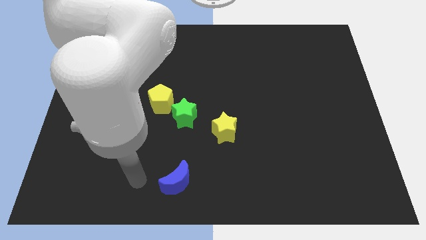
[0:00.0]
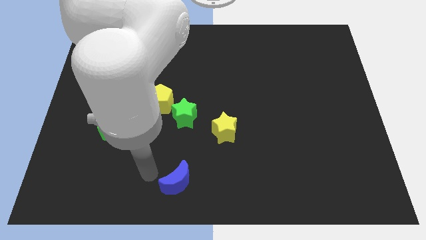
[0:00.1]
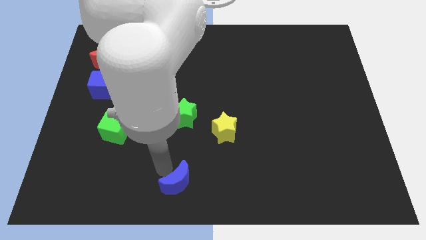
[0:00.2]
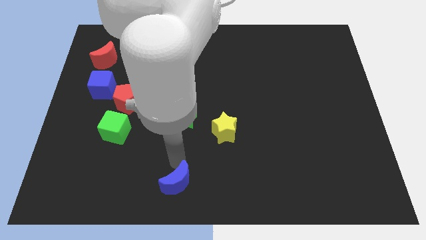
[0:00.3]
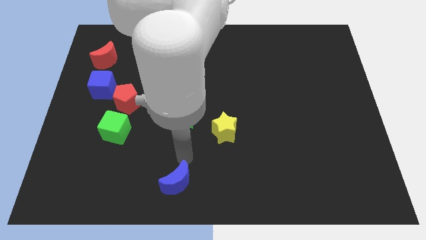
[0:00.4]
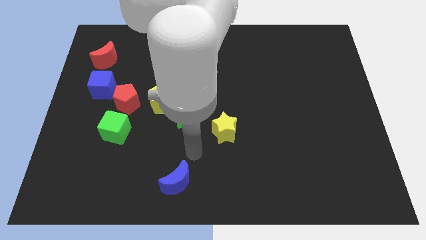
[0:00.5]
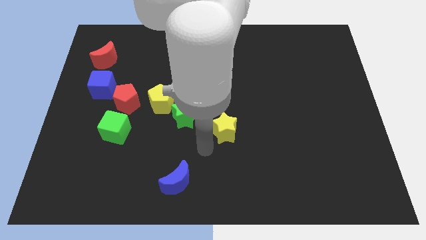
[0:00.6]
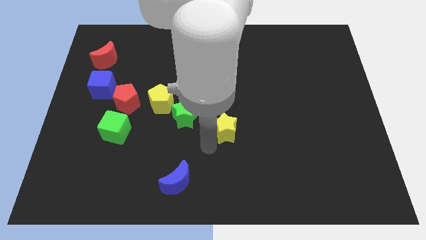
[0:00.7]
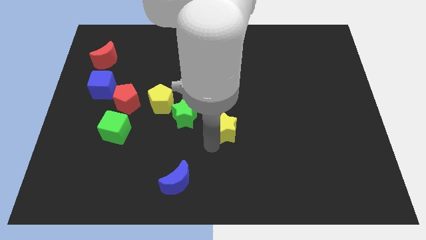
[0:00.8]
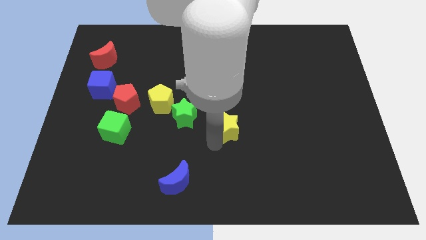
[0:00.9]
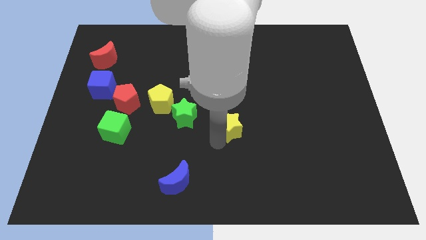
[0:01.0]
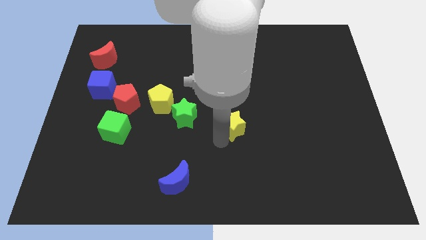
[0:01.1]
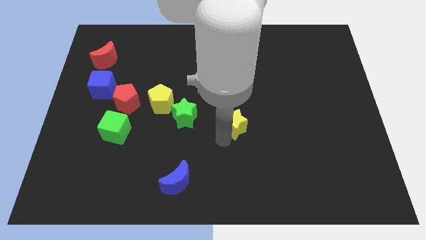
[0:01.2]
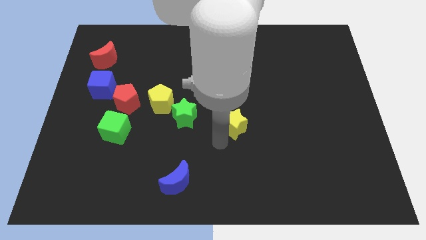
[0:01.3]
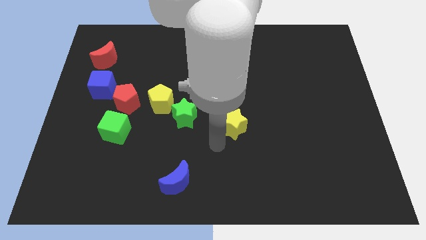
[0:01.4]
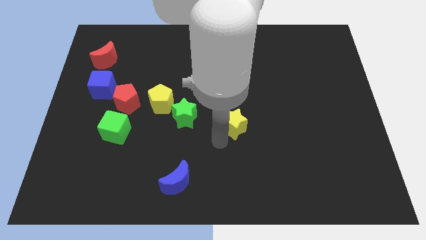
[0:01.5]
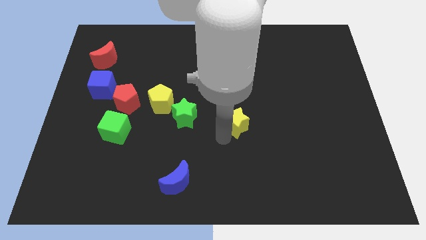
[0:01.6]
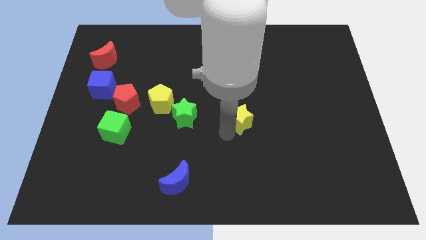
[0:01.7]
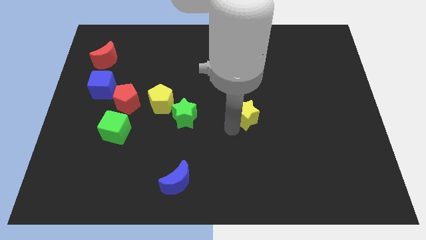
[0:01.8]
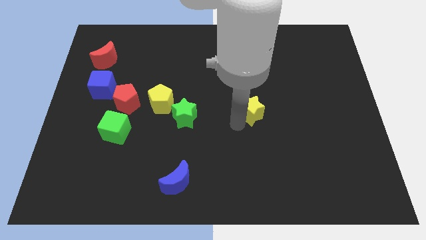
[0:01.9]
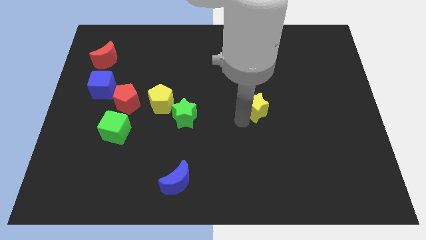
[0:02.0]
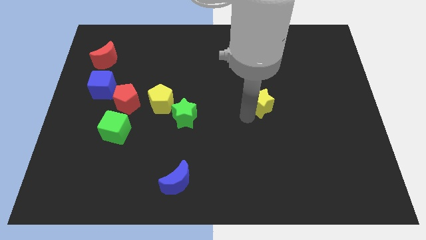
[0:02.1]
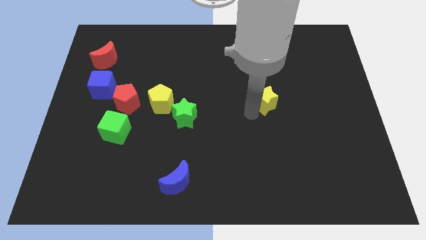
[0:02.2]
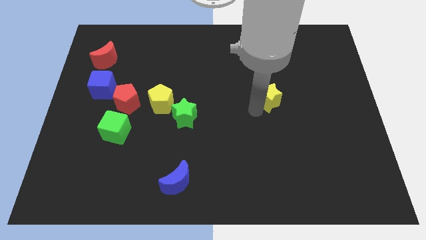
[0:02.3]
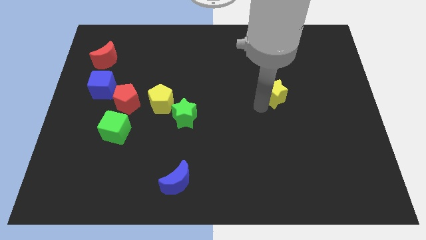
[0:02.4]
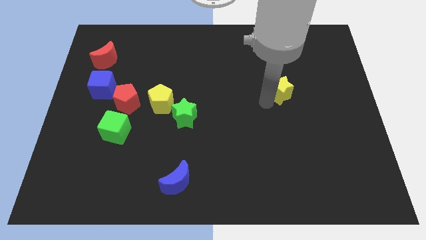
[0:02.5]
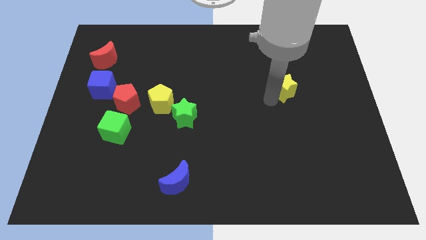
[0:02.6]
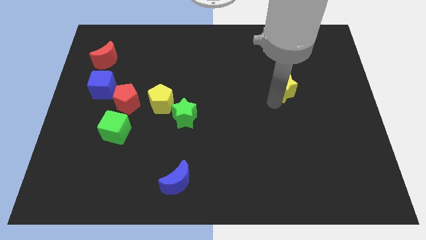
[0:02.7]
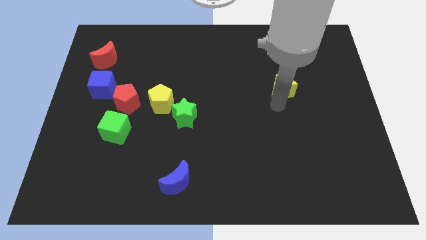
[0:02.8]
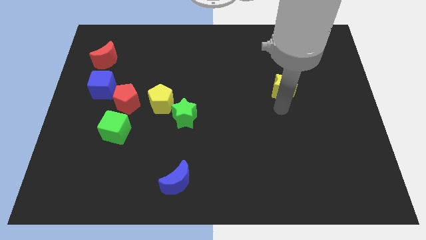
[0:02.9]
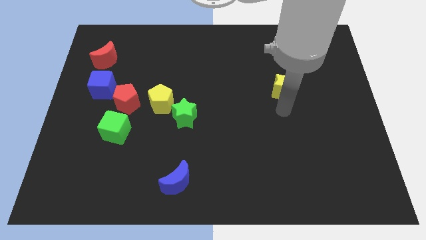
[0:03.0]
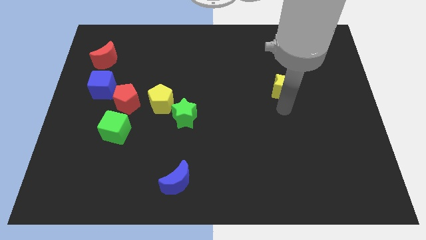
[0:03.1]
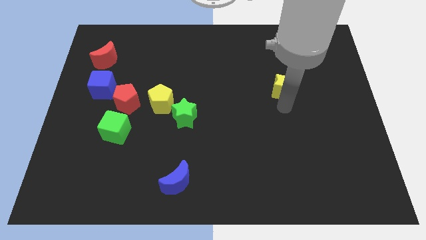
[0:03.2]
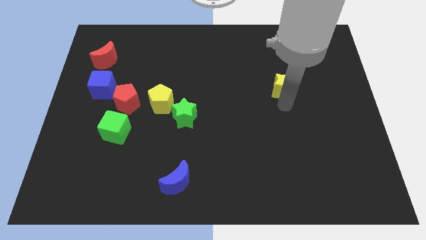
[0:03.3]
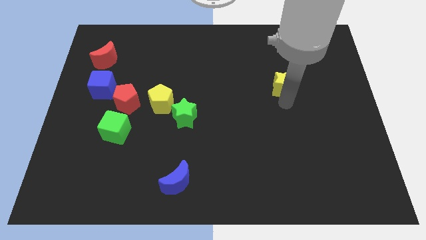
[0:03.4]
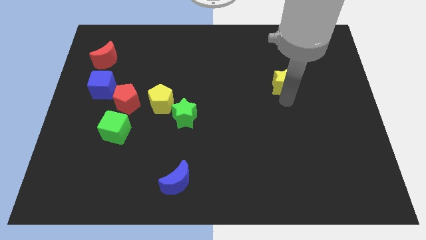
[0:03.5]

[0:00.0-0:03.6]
push the yellow star upwards and then to the right

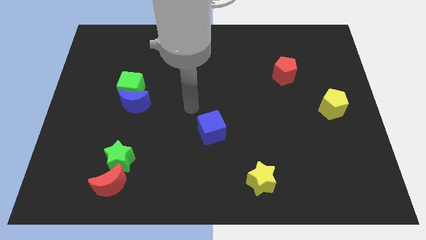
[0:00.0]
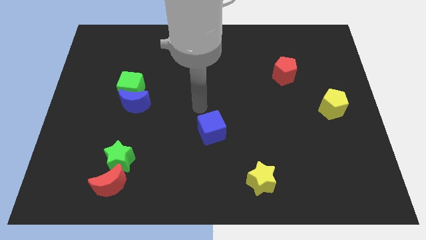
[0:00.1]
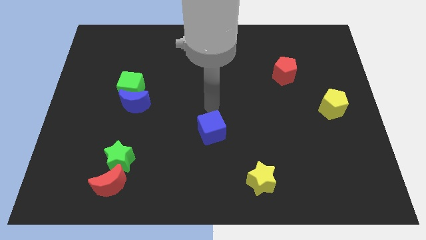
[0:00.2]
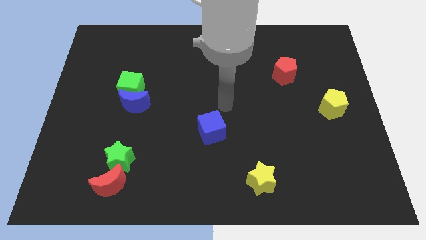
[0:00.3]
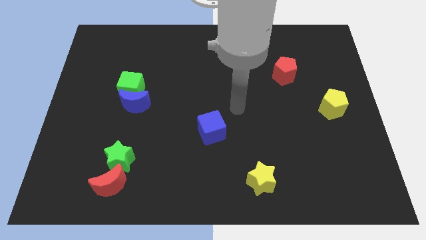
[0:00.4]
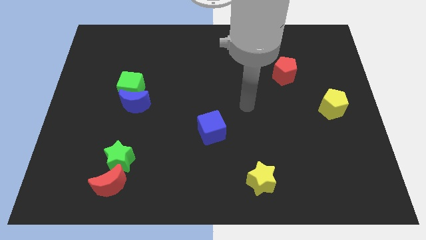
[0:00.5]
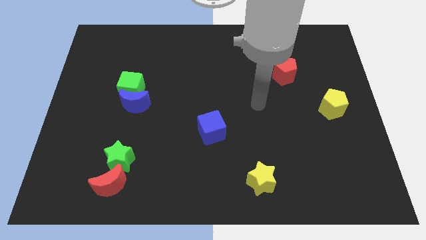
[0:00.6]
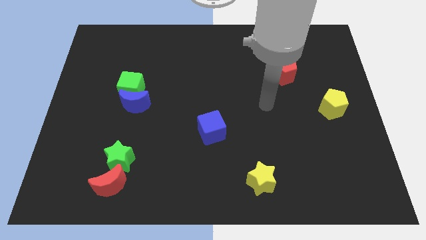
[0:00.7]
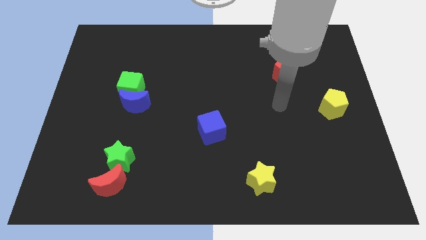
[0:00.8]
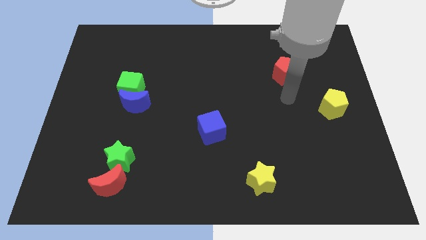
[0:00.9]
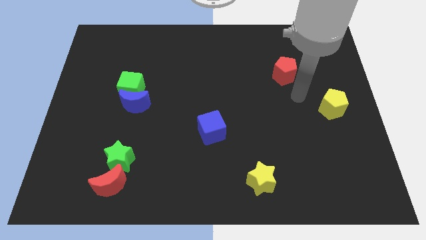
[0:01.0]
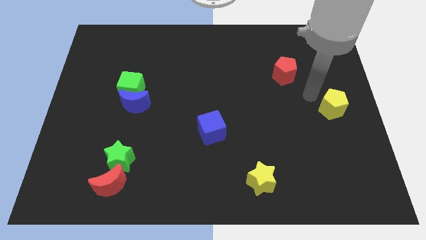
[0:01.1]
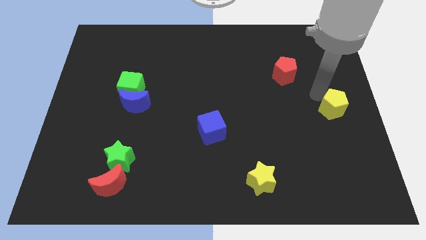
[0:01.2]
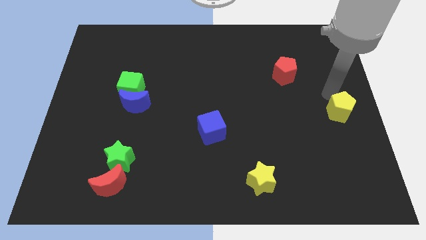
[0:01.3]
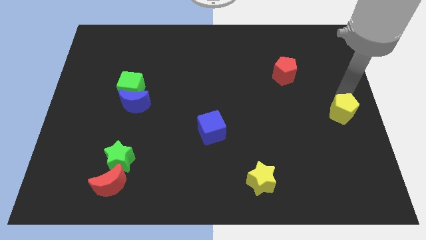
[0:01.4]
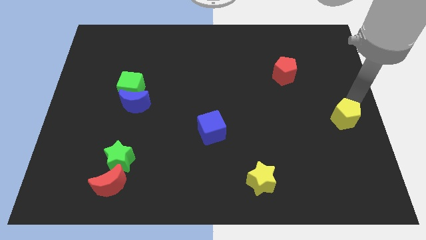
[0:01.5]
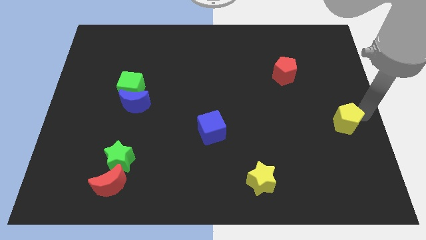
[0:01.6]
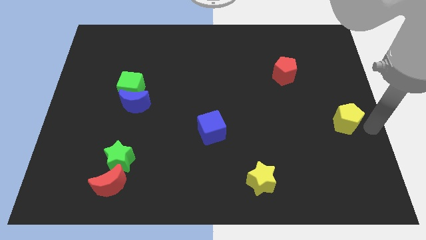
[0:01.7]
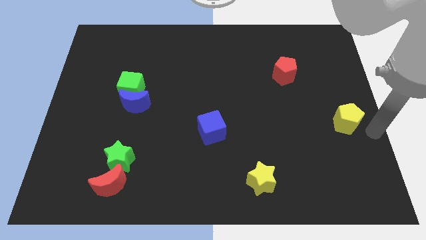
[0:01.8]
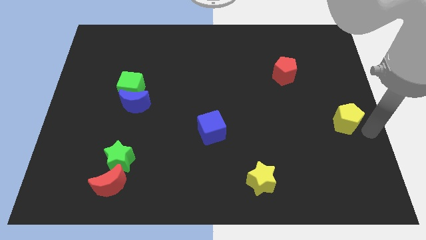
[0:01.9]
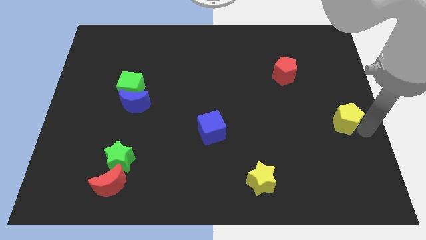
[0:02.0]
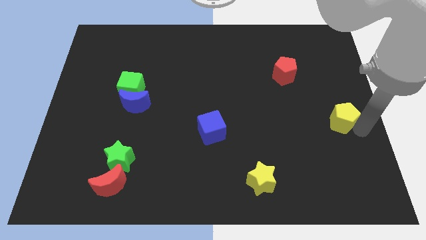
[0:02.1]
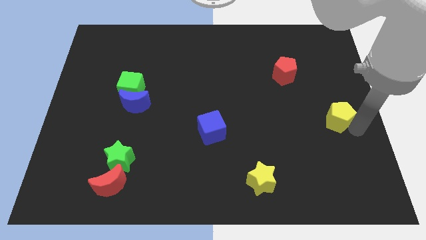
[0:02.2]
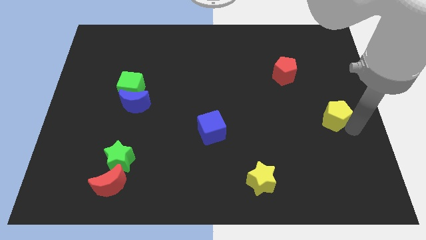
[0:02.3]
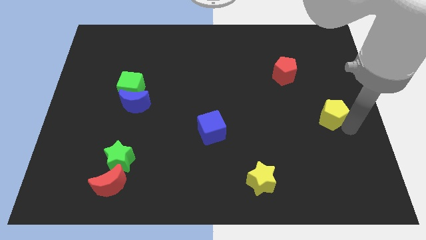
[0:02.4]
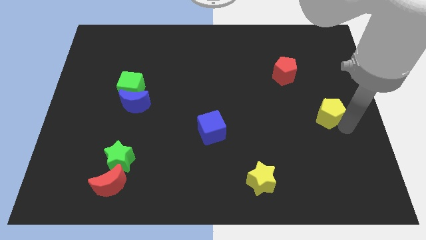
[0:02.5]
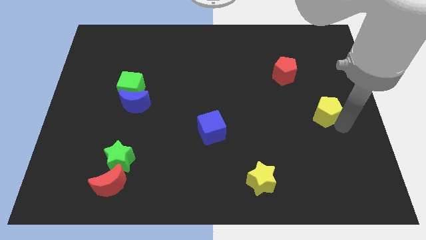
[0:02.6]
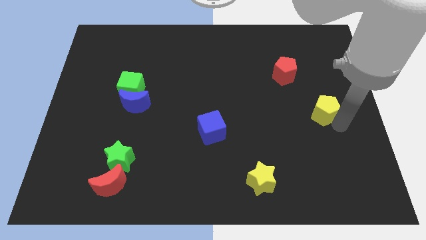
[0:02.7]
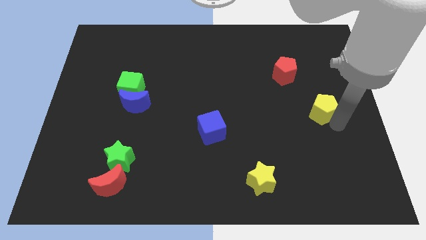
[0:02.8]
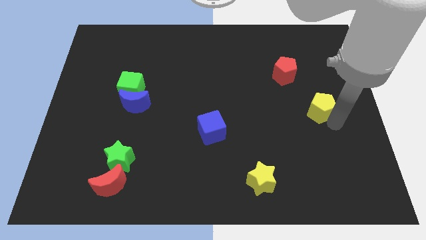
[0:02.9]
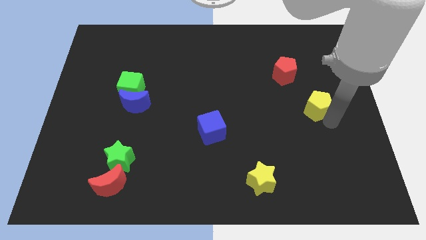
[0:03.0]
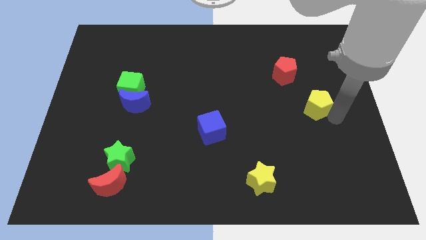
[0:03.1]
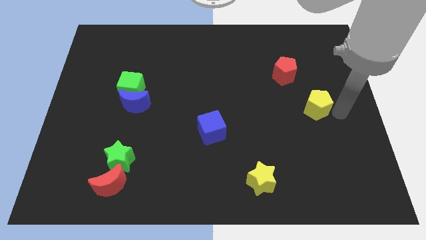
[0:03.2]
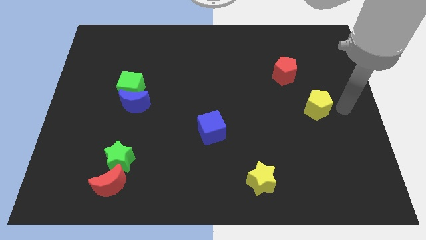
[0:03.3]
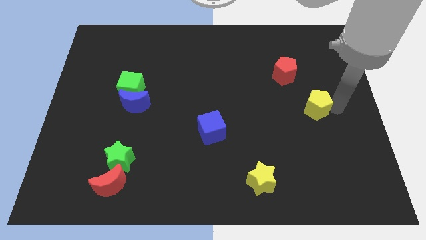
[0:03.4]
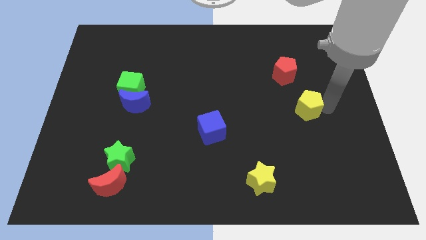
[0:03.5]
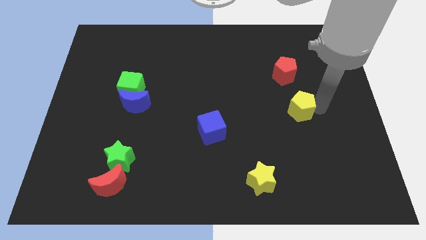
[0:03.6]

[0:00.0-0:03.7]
slide the yellow pentagon left slightly

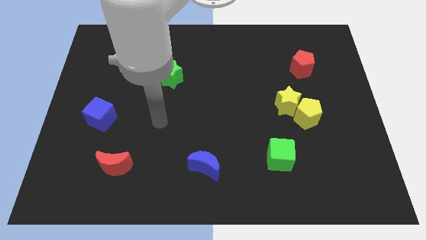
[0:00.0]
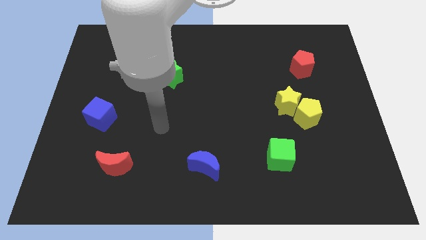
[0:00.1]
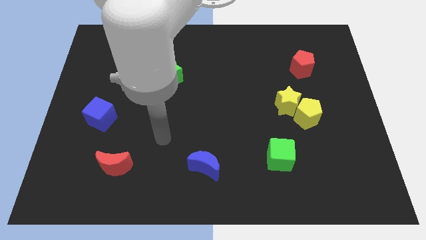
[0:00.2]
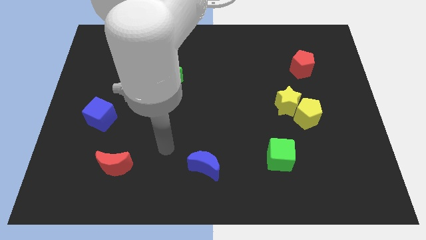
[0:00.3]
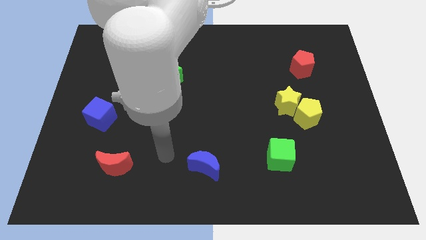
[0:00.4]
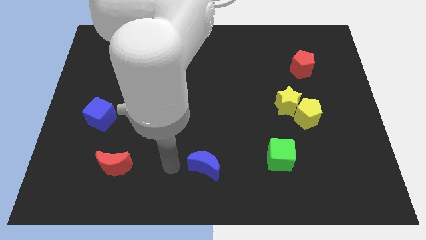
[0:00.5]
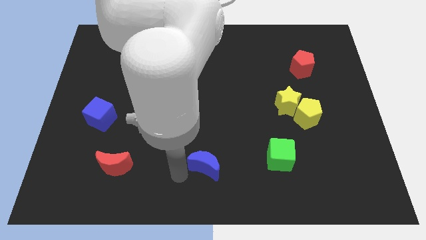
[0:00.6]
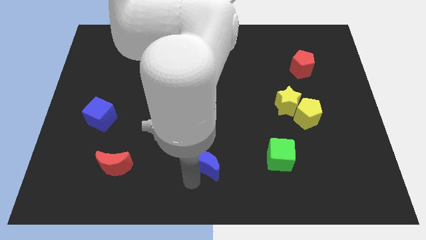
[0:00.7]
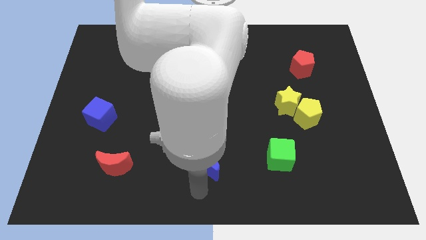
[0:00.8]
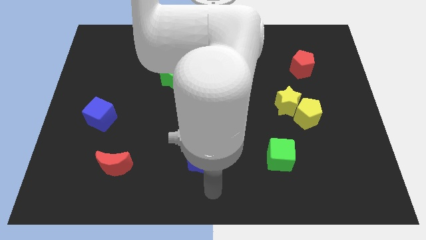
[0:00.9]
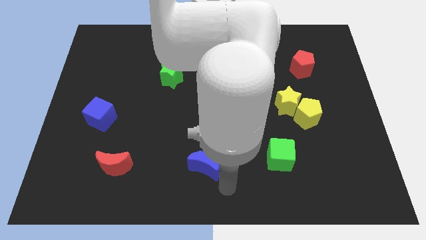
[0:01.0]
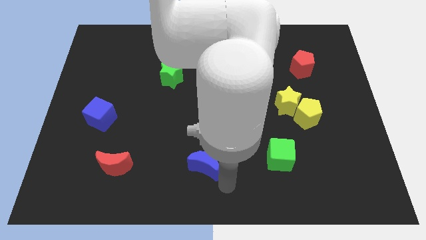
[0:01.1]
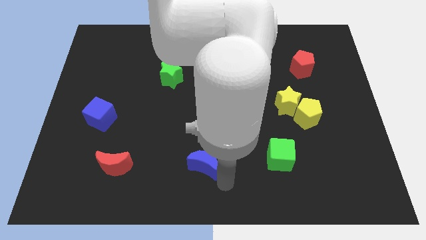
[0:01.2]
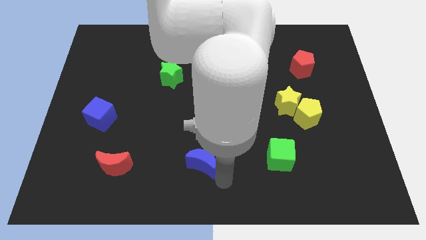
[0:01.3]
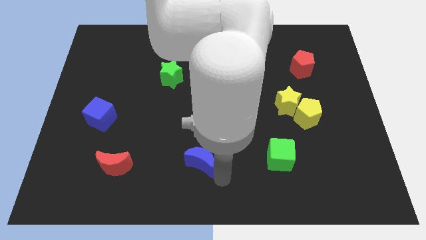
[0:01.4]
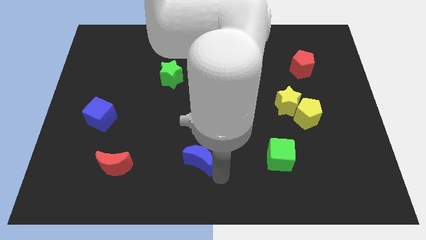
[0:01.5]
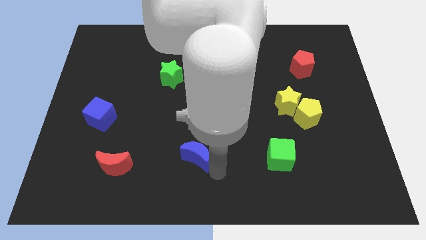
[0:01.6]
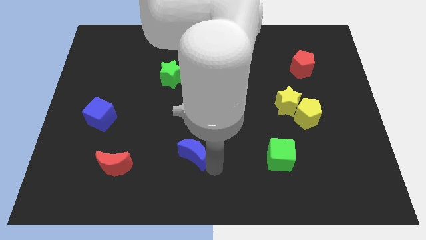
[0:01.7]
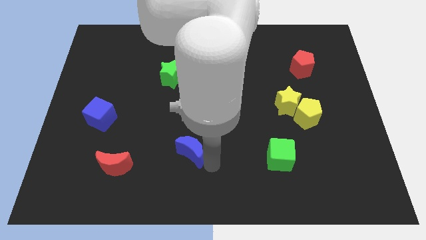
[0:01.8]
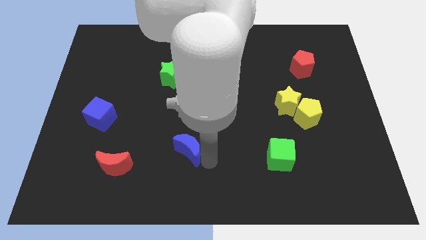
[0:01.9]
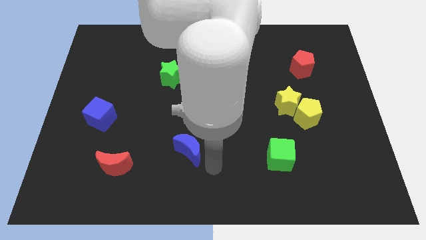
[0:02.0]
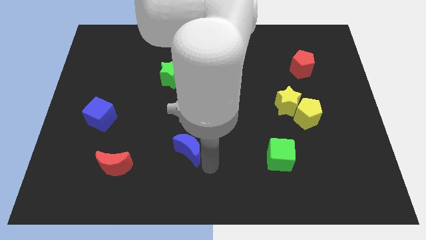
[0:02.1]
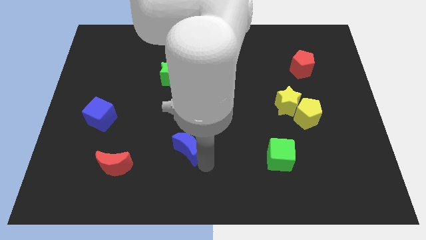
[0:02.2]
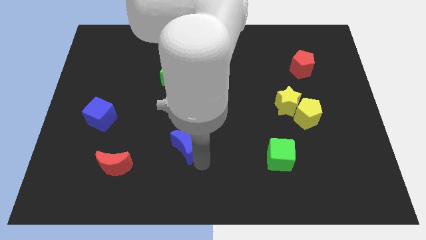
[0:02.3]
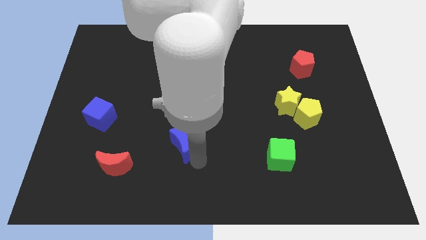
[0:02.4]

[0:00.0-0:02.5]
slide the blue moon somewhat diagonally up and left
